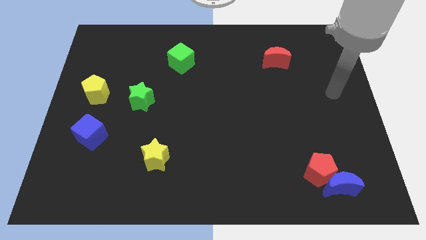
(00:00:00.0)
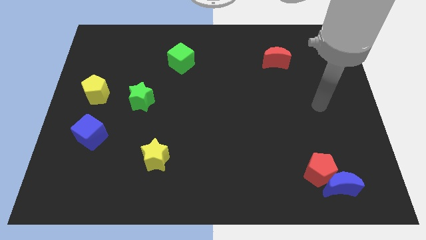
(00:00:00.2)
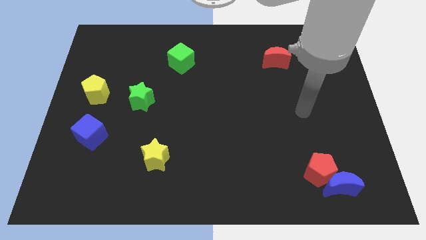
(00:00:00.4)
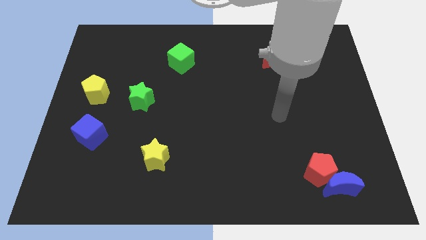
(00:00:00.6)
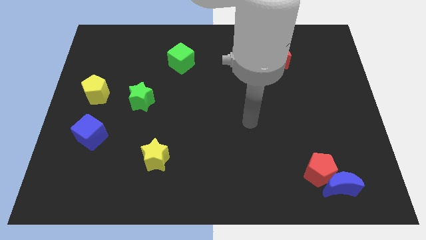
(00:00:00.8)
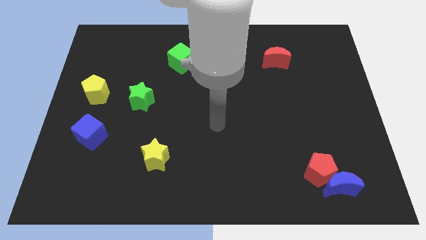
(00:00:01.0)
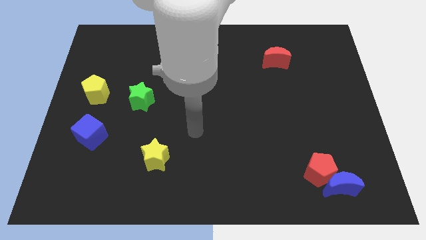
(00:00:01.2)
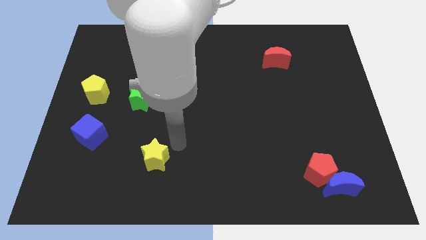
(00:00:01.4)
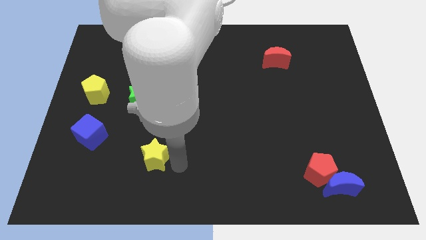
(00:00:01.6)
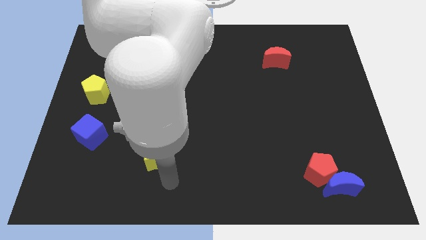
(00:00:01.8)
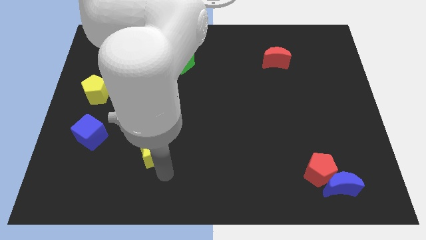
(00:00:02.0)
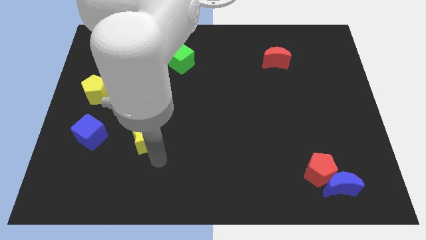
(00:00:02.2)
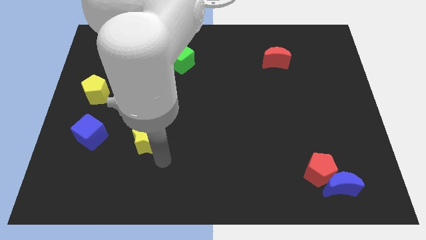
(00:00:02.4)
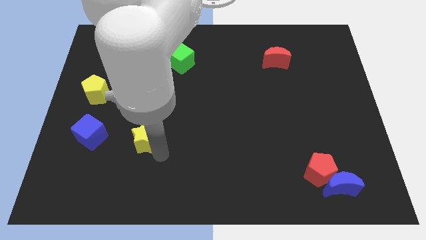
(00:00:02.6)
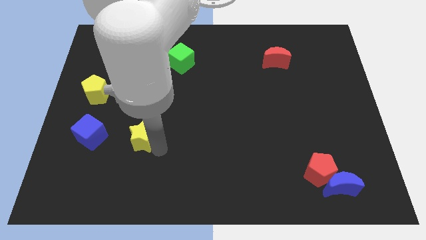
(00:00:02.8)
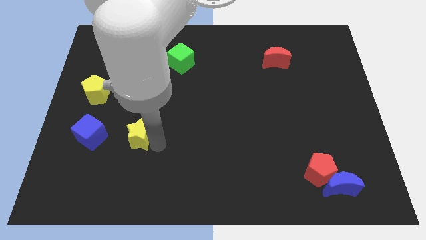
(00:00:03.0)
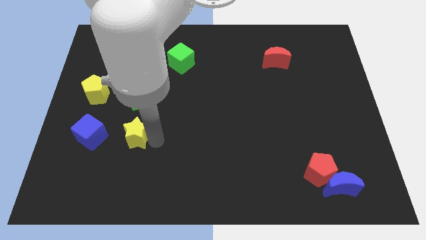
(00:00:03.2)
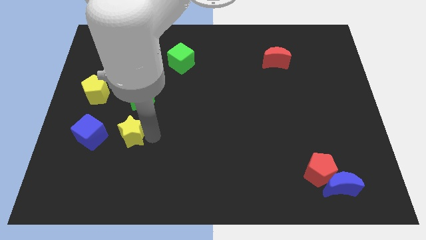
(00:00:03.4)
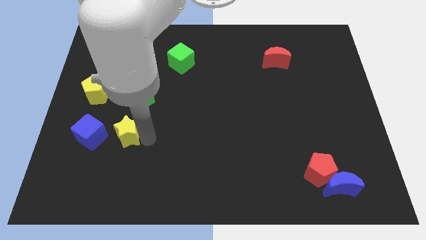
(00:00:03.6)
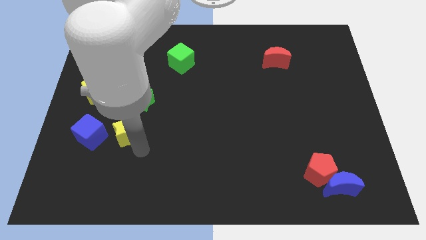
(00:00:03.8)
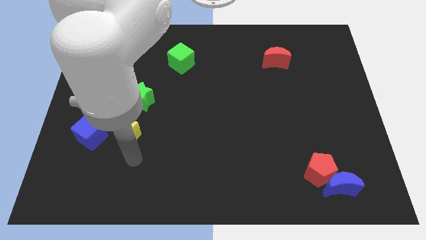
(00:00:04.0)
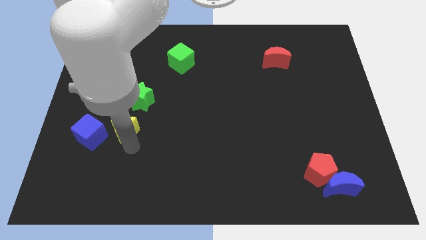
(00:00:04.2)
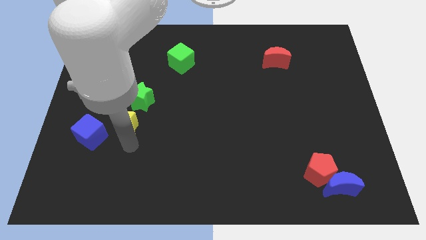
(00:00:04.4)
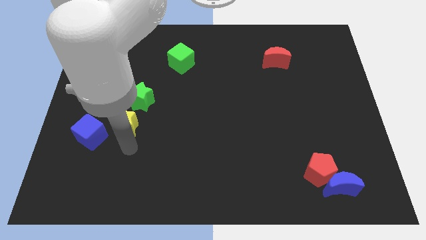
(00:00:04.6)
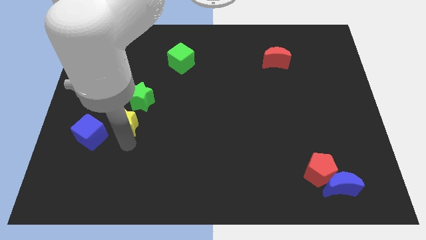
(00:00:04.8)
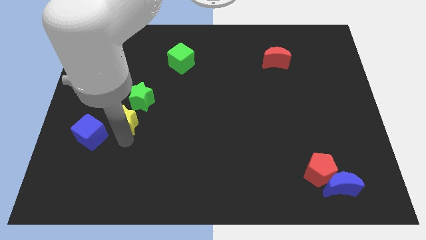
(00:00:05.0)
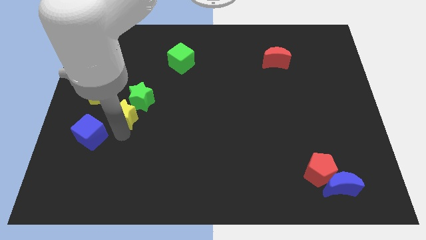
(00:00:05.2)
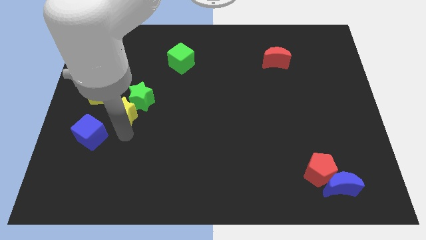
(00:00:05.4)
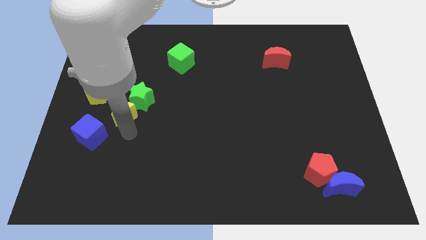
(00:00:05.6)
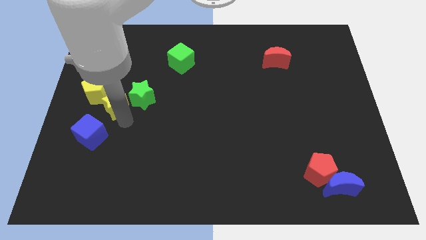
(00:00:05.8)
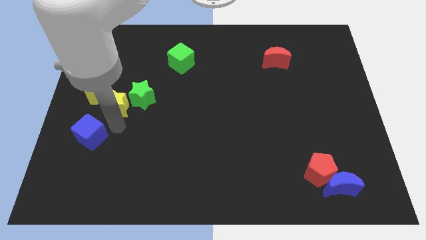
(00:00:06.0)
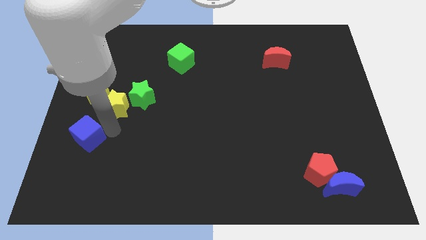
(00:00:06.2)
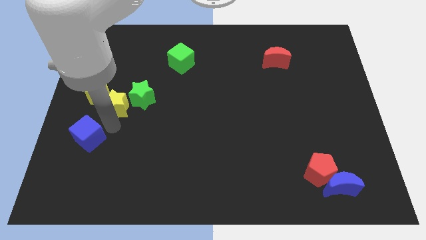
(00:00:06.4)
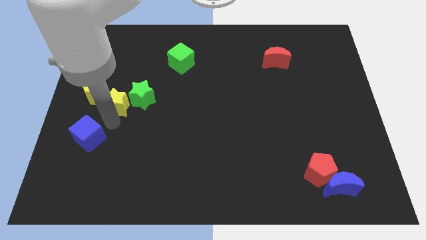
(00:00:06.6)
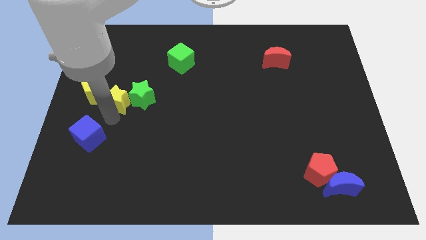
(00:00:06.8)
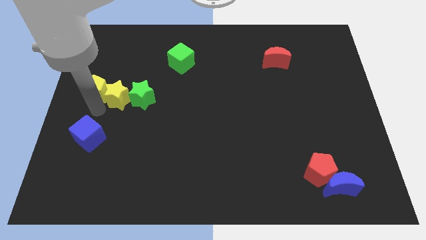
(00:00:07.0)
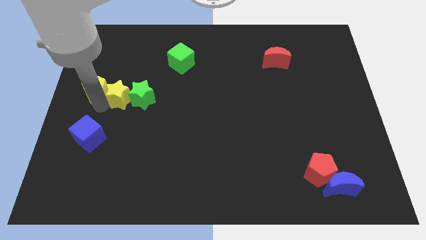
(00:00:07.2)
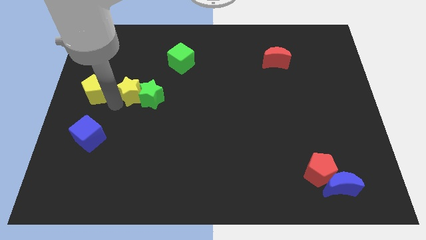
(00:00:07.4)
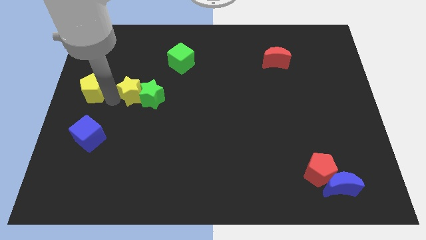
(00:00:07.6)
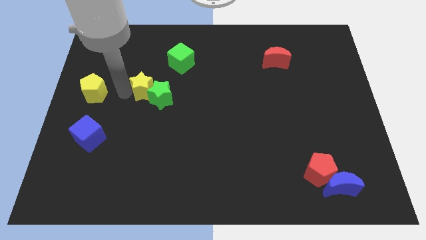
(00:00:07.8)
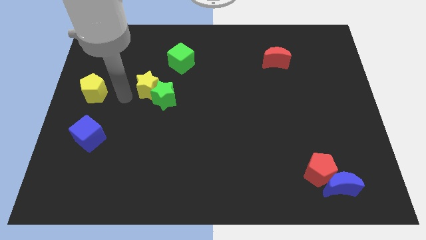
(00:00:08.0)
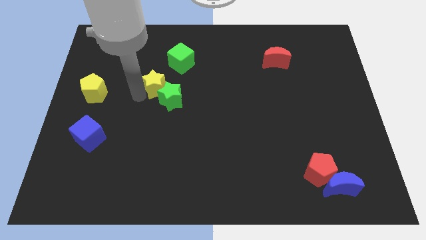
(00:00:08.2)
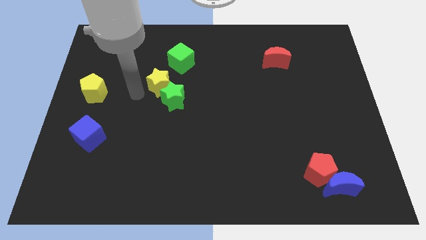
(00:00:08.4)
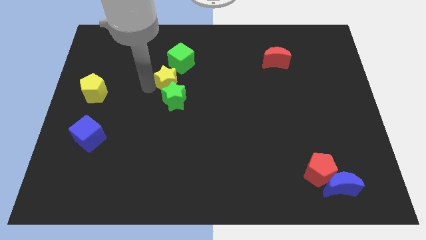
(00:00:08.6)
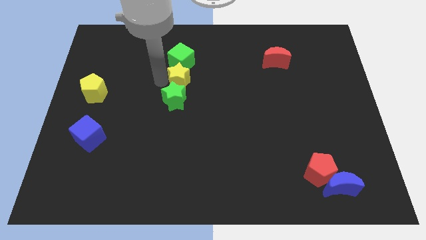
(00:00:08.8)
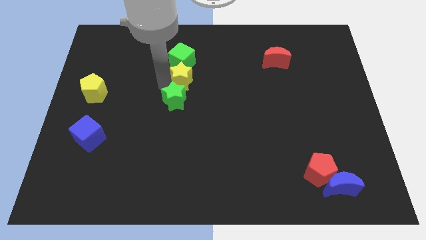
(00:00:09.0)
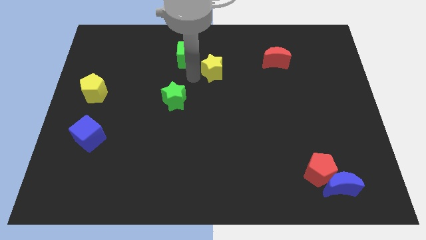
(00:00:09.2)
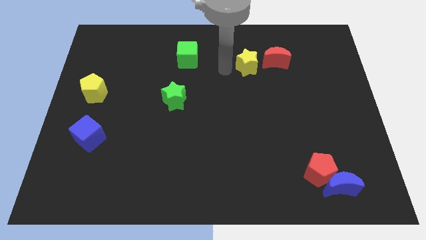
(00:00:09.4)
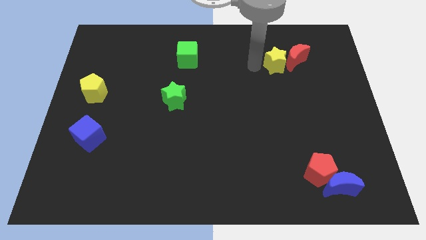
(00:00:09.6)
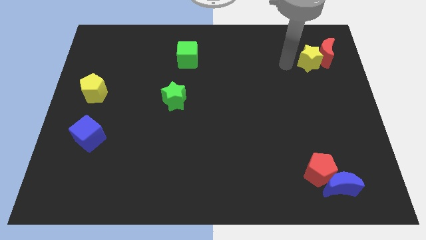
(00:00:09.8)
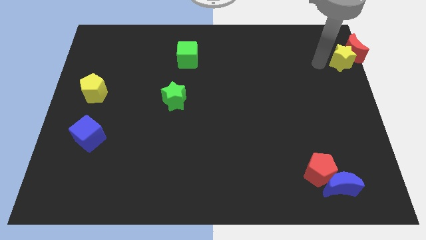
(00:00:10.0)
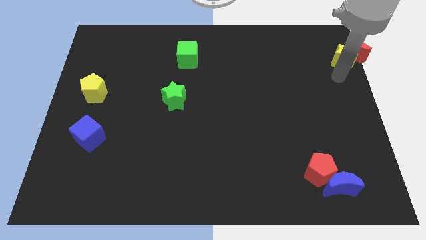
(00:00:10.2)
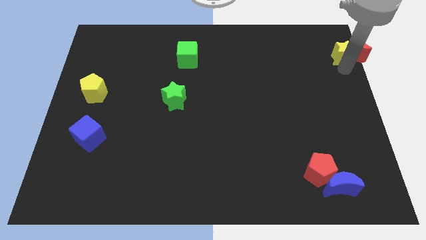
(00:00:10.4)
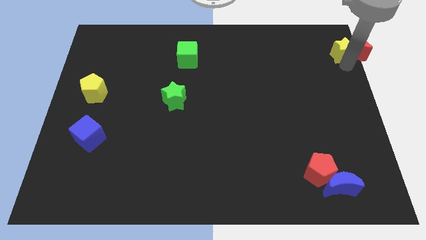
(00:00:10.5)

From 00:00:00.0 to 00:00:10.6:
move the yellow star to the upper right corner

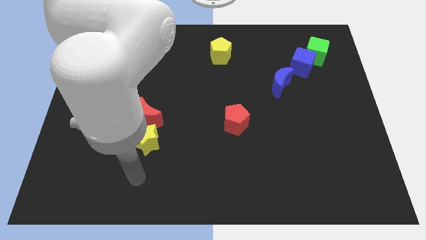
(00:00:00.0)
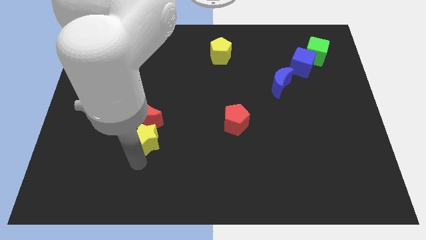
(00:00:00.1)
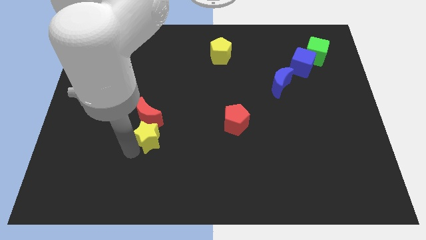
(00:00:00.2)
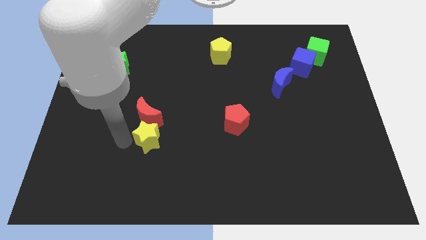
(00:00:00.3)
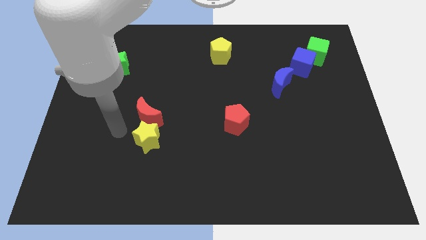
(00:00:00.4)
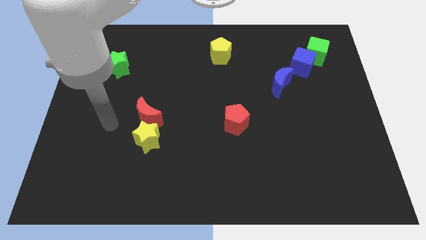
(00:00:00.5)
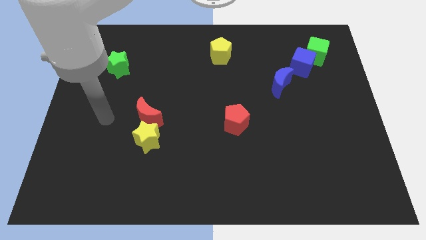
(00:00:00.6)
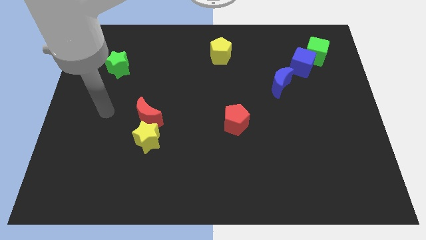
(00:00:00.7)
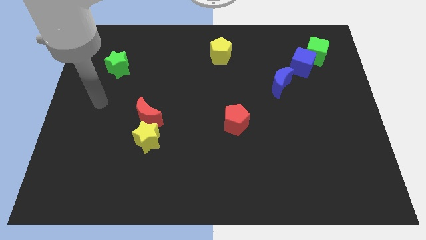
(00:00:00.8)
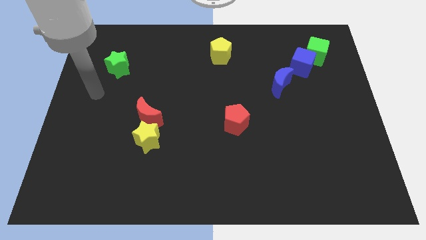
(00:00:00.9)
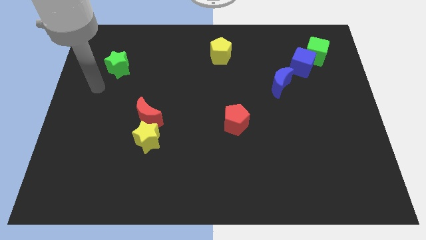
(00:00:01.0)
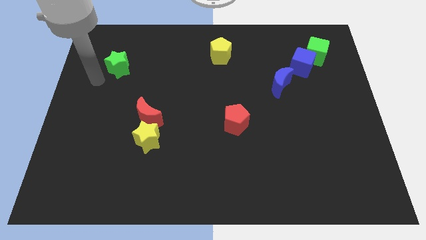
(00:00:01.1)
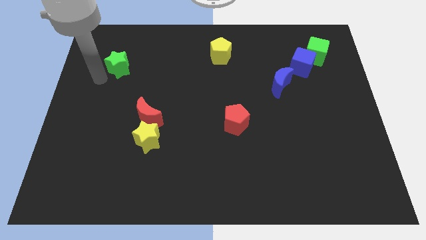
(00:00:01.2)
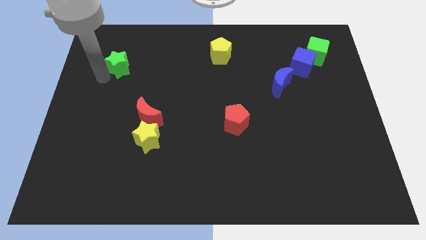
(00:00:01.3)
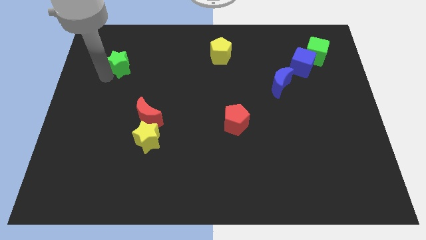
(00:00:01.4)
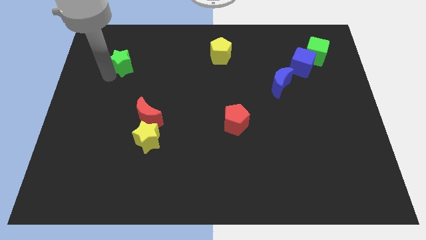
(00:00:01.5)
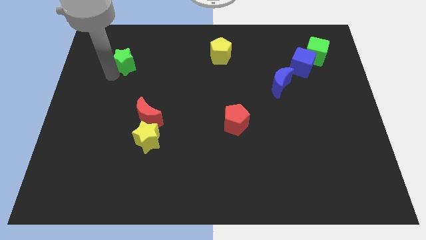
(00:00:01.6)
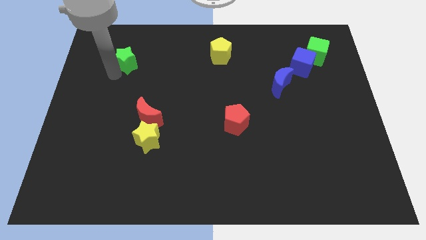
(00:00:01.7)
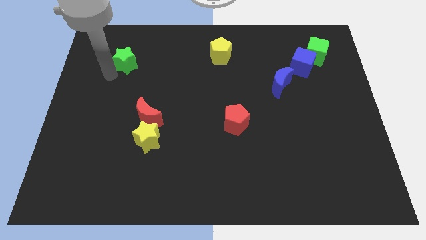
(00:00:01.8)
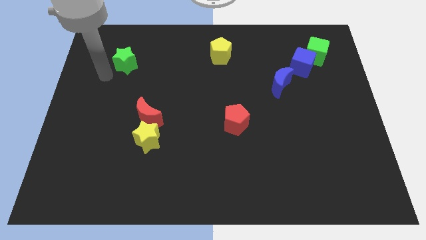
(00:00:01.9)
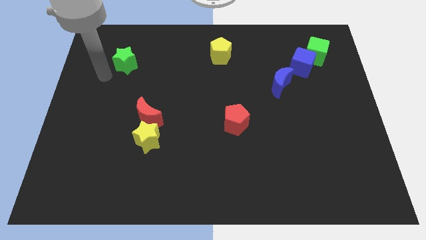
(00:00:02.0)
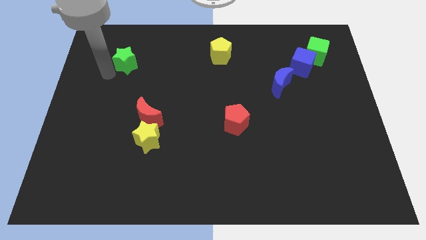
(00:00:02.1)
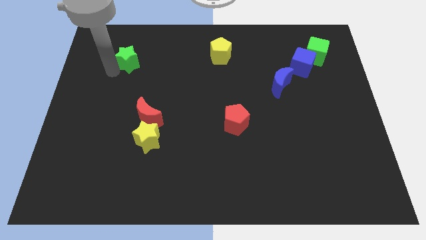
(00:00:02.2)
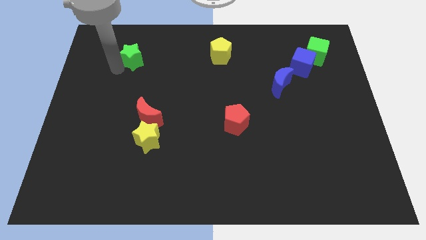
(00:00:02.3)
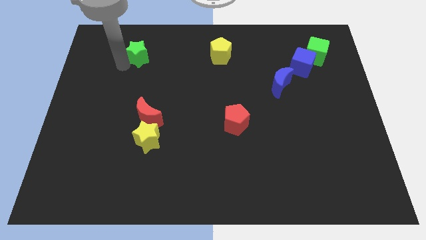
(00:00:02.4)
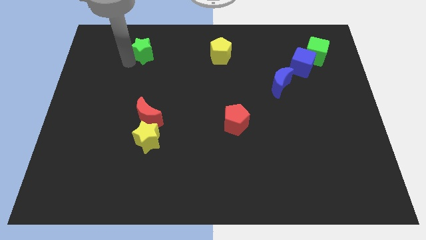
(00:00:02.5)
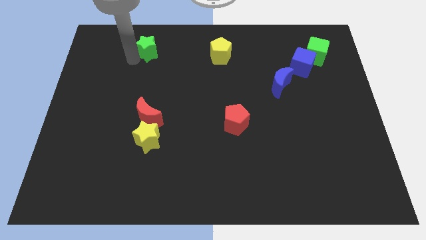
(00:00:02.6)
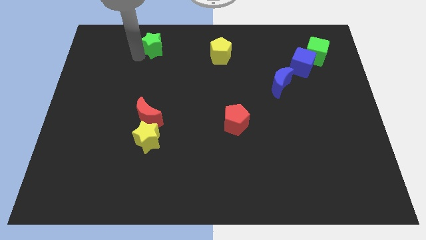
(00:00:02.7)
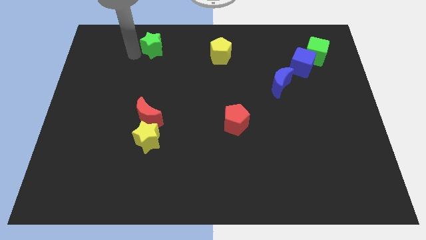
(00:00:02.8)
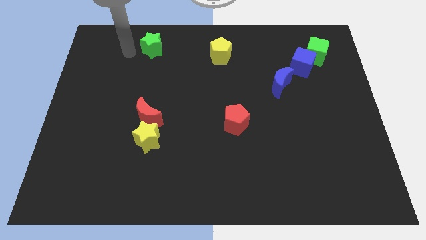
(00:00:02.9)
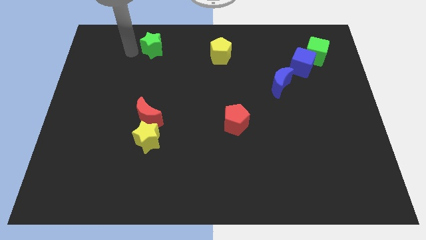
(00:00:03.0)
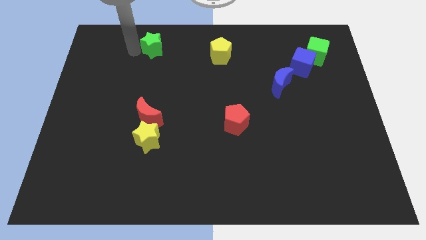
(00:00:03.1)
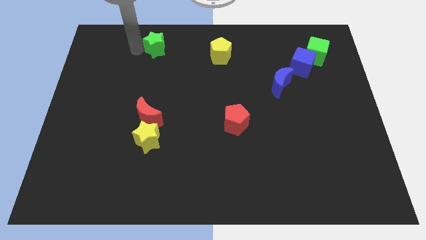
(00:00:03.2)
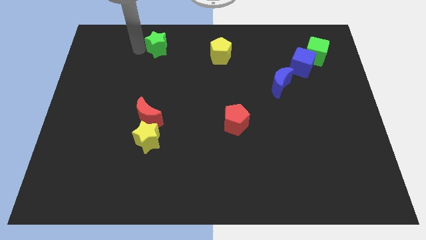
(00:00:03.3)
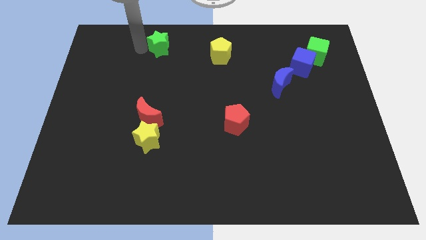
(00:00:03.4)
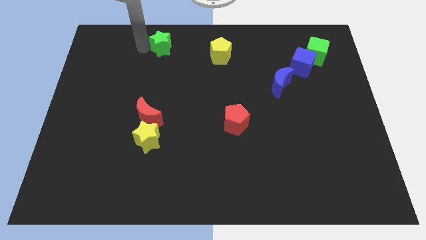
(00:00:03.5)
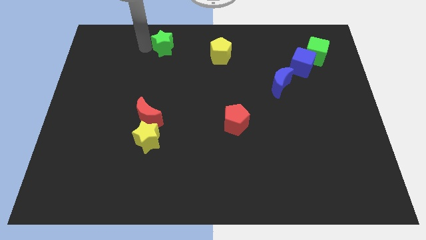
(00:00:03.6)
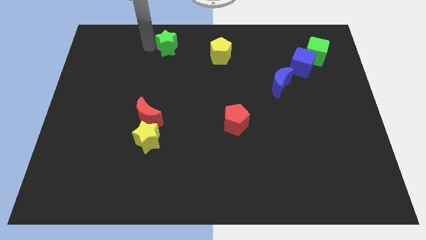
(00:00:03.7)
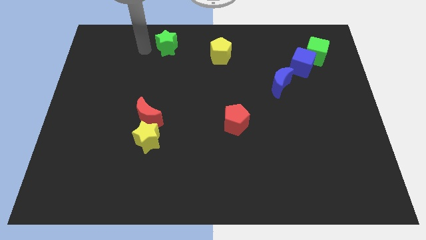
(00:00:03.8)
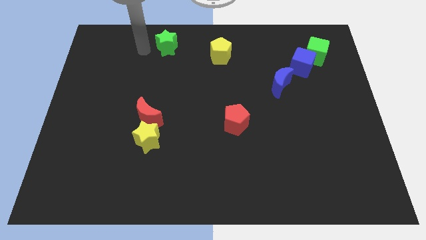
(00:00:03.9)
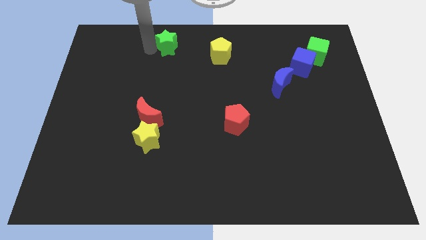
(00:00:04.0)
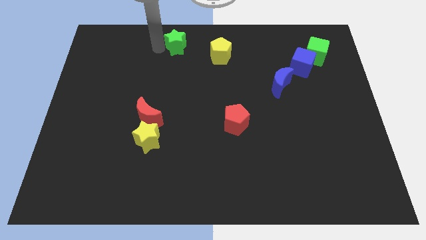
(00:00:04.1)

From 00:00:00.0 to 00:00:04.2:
move the green star to the towards your base
